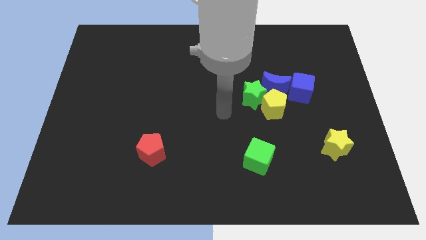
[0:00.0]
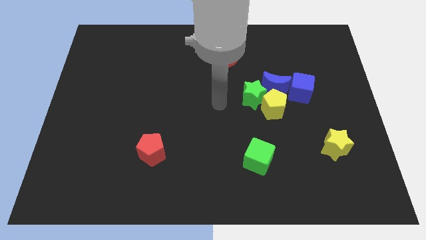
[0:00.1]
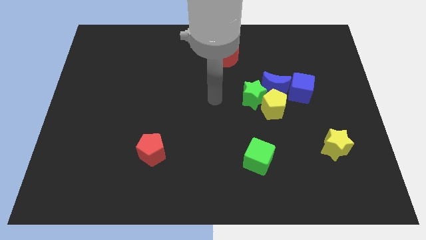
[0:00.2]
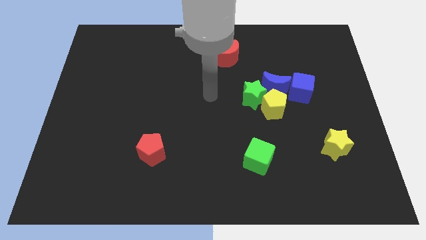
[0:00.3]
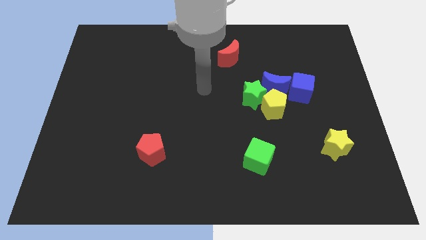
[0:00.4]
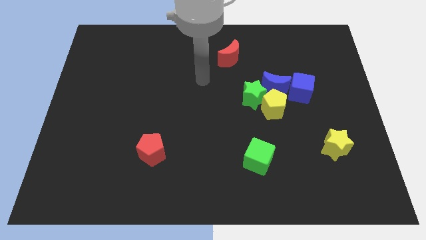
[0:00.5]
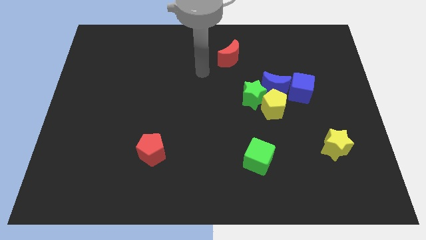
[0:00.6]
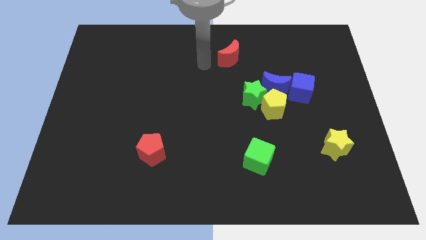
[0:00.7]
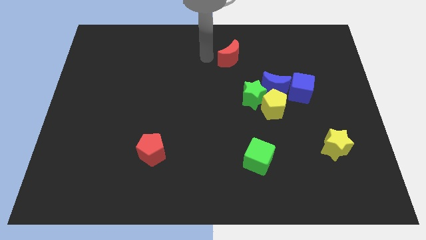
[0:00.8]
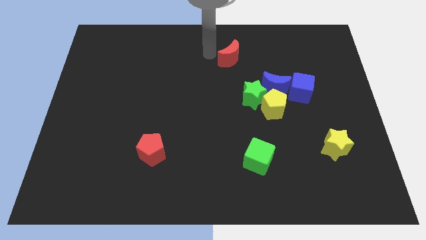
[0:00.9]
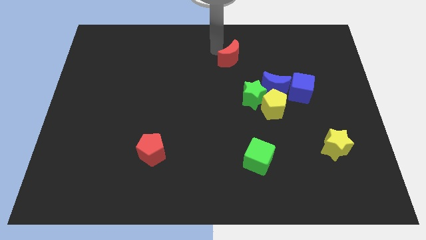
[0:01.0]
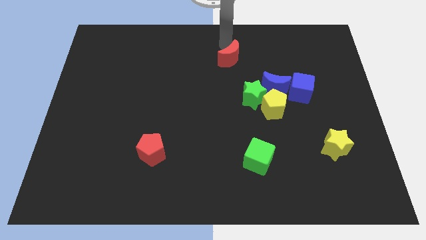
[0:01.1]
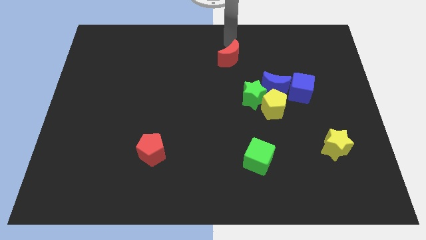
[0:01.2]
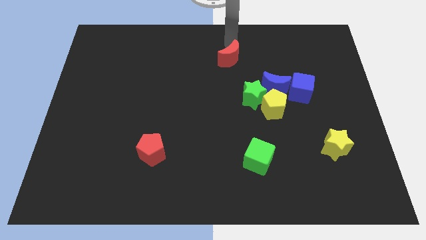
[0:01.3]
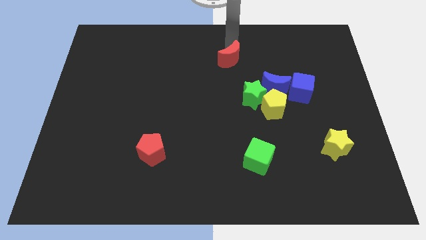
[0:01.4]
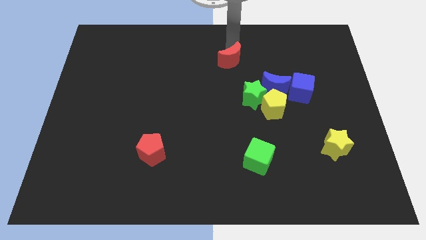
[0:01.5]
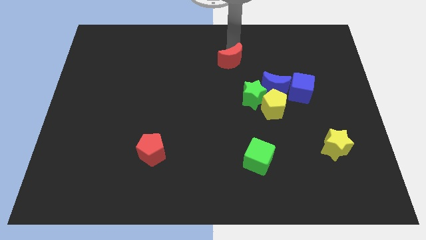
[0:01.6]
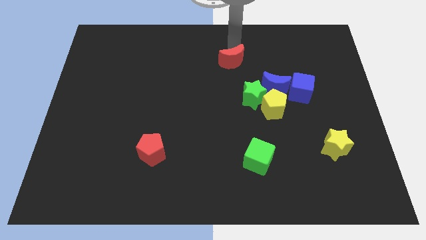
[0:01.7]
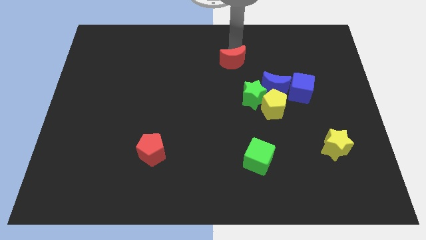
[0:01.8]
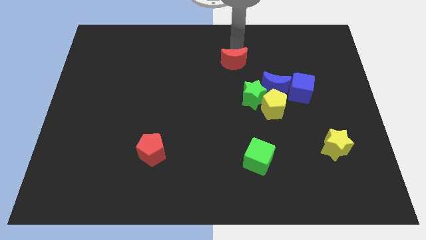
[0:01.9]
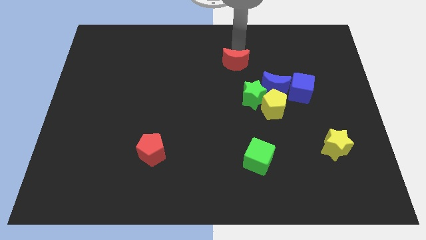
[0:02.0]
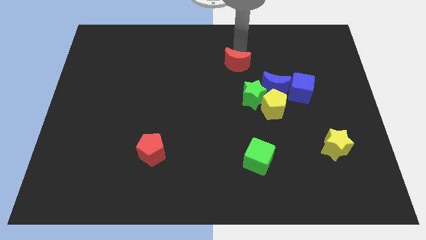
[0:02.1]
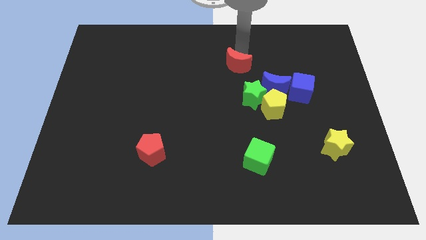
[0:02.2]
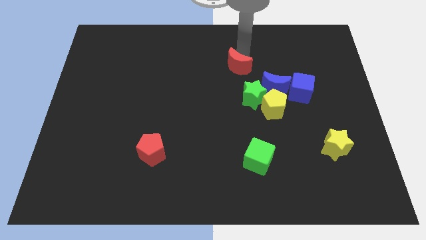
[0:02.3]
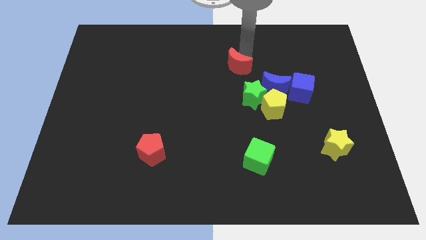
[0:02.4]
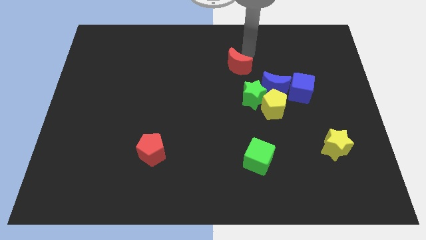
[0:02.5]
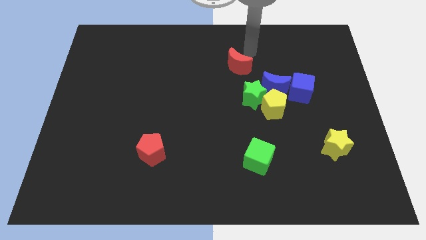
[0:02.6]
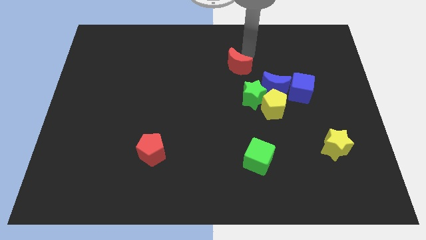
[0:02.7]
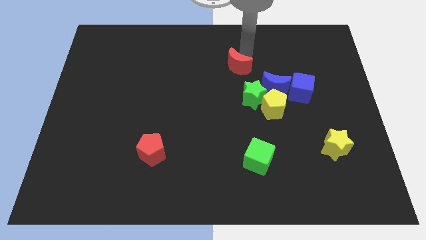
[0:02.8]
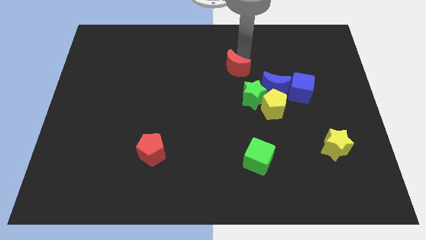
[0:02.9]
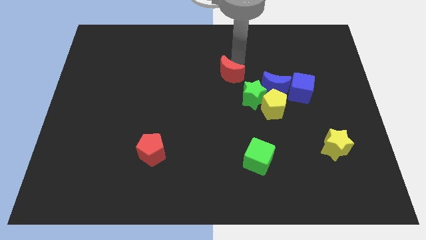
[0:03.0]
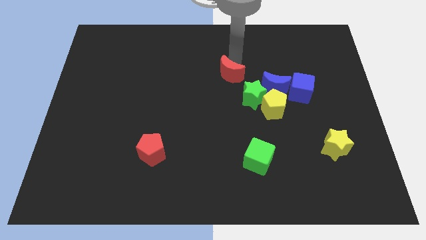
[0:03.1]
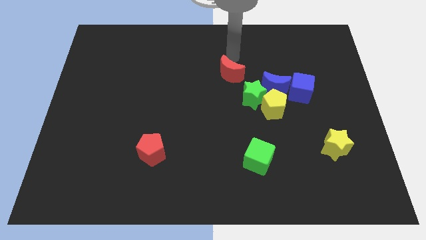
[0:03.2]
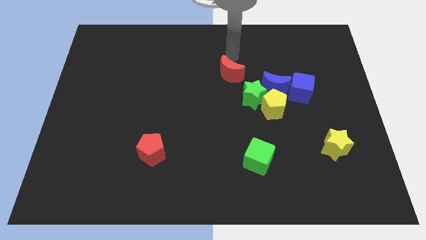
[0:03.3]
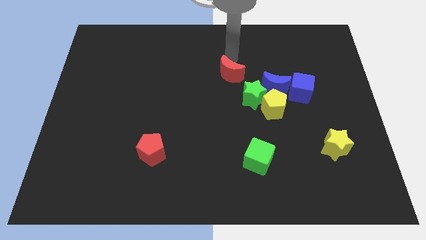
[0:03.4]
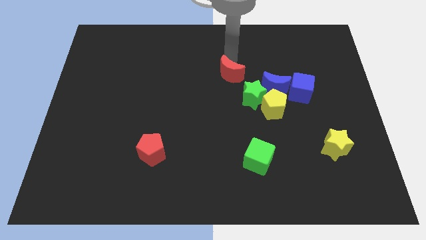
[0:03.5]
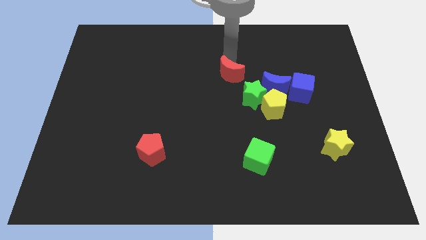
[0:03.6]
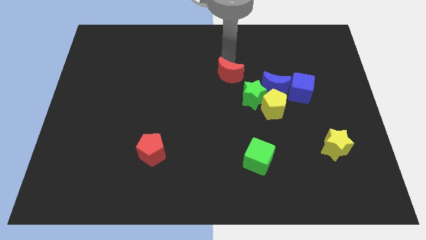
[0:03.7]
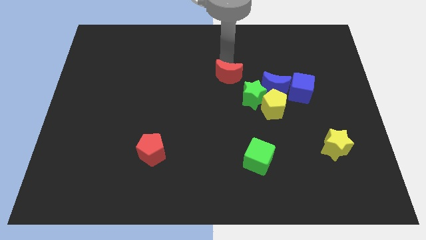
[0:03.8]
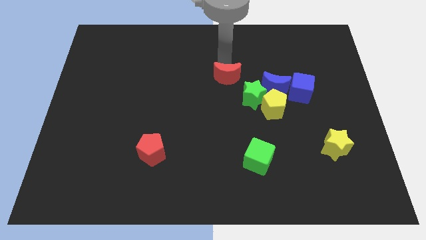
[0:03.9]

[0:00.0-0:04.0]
slightly push the red moon downwards

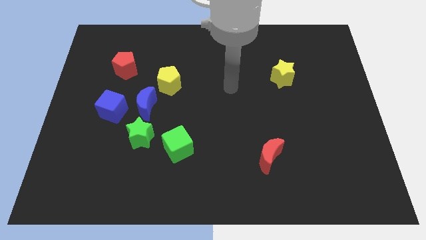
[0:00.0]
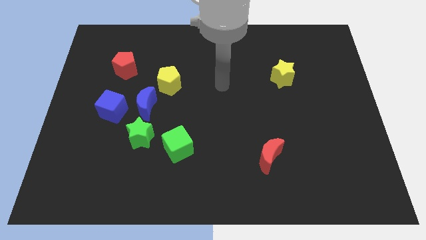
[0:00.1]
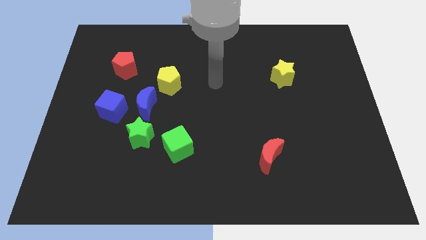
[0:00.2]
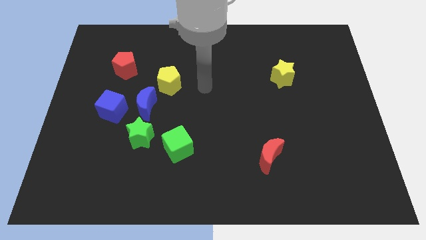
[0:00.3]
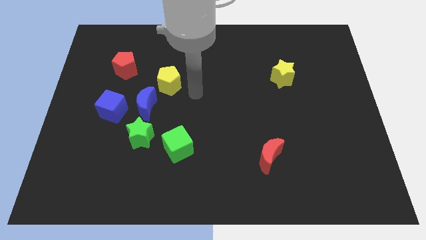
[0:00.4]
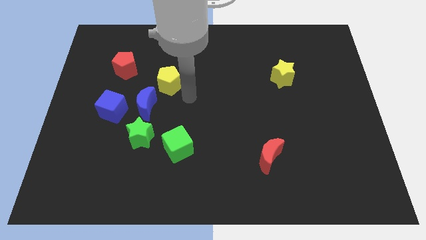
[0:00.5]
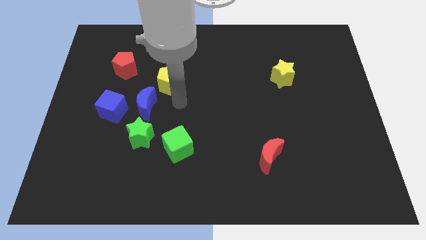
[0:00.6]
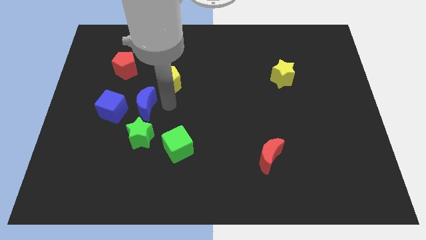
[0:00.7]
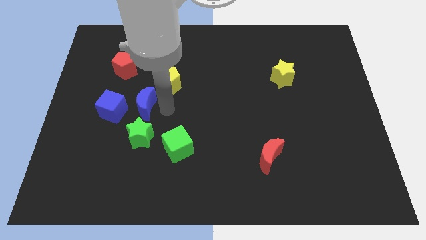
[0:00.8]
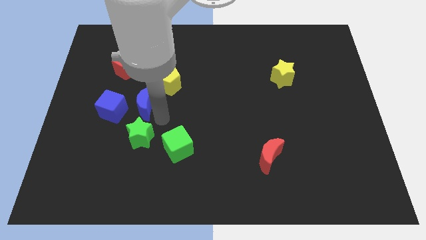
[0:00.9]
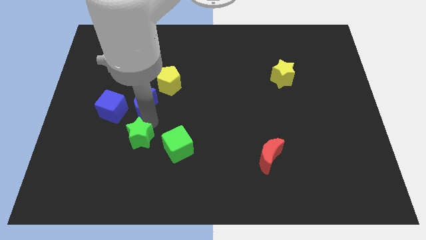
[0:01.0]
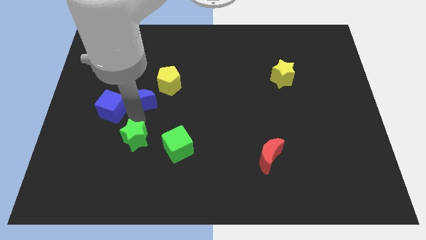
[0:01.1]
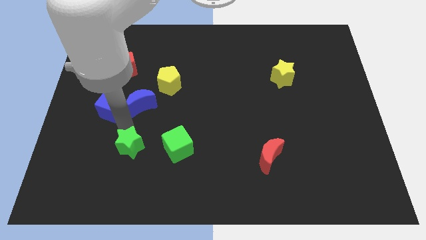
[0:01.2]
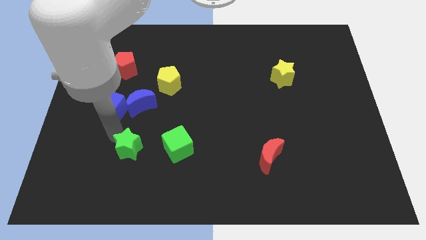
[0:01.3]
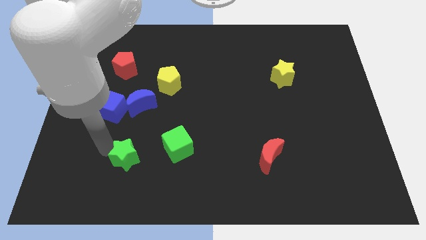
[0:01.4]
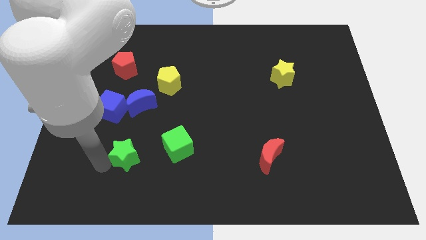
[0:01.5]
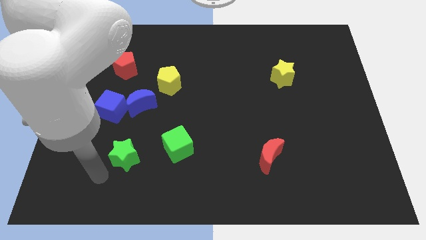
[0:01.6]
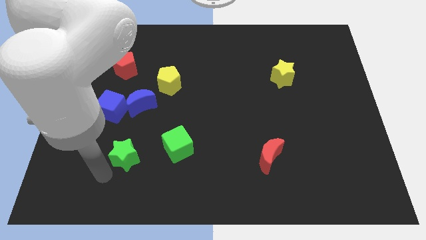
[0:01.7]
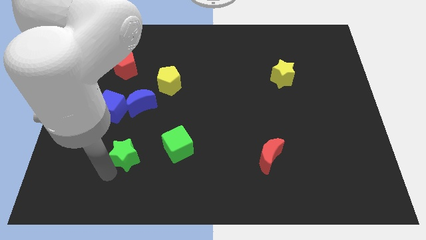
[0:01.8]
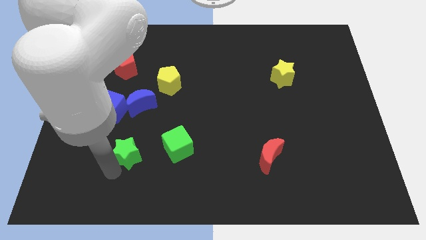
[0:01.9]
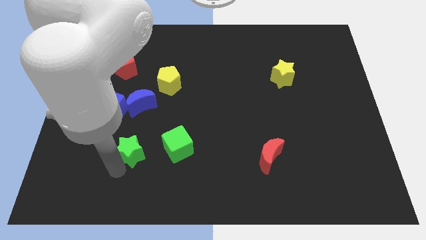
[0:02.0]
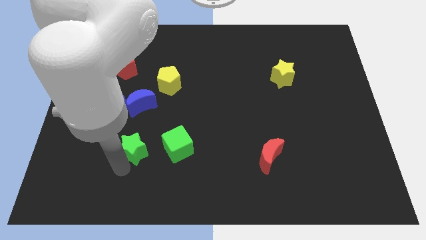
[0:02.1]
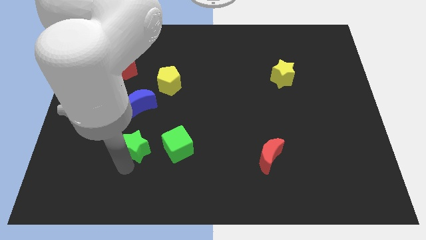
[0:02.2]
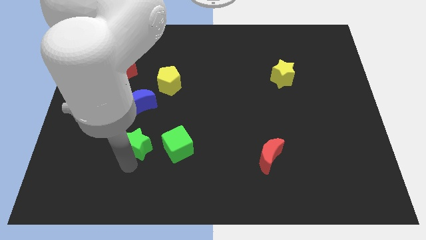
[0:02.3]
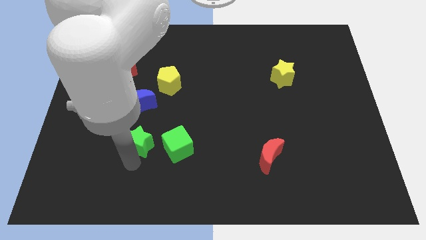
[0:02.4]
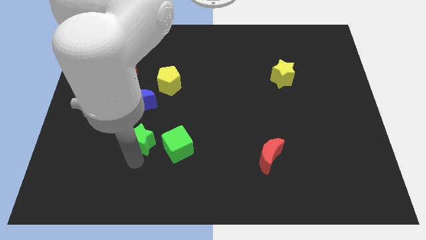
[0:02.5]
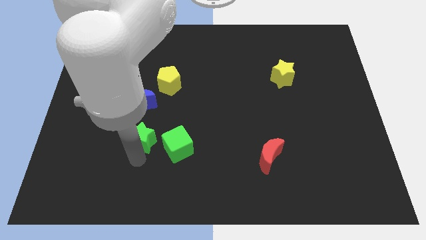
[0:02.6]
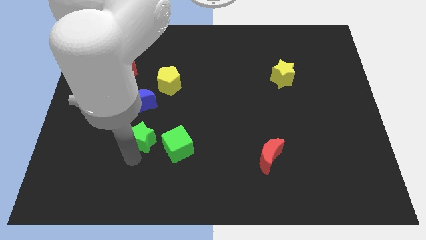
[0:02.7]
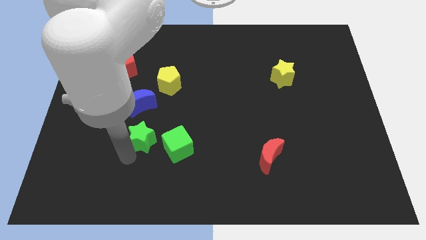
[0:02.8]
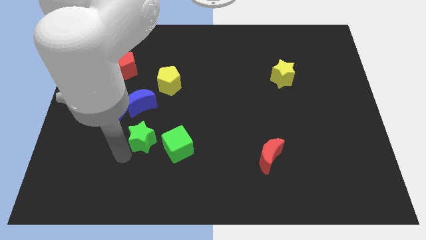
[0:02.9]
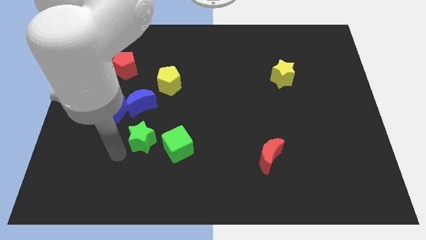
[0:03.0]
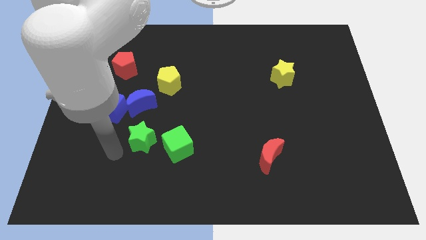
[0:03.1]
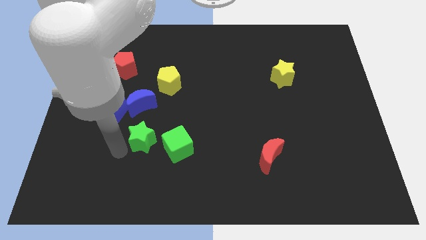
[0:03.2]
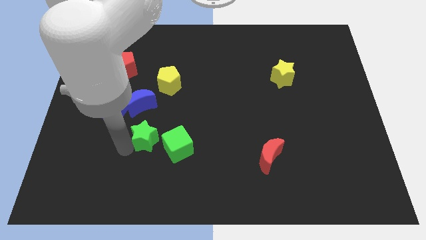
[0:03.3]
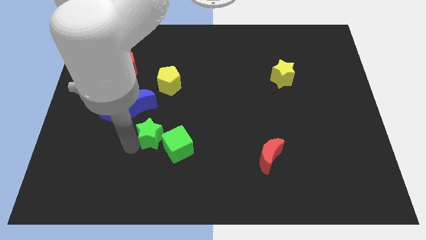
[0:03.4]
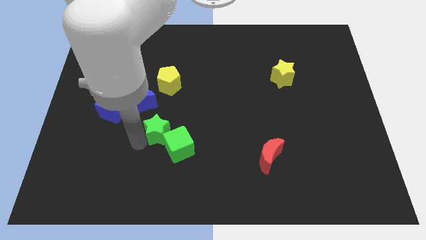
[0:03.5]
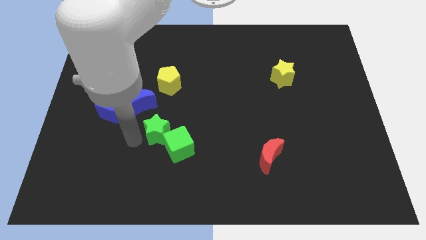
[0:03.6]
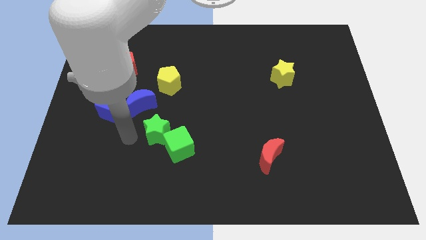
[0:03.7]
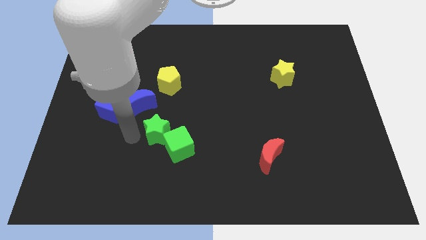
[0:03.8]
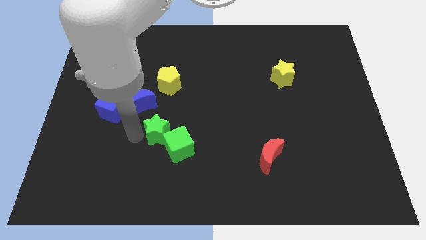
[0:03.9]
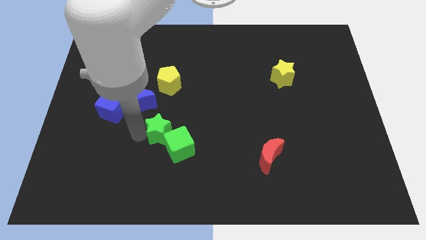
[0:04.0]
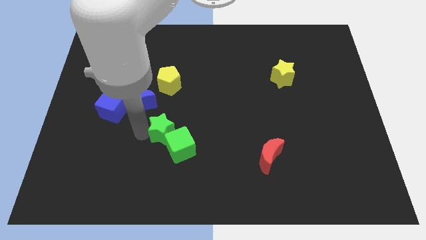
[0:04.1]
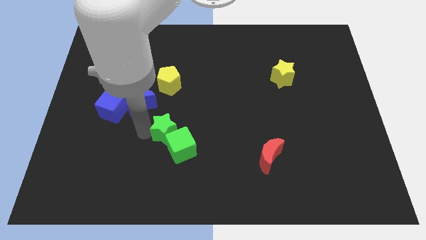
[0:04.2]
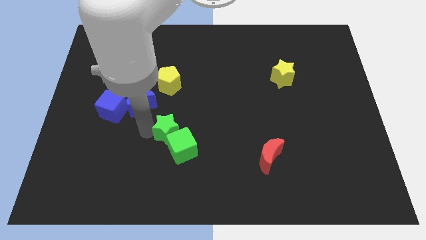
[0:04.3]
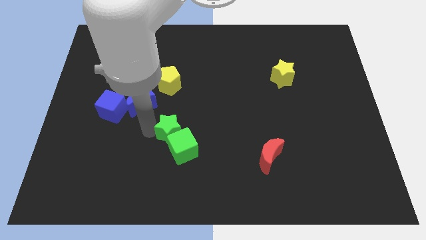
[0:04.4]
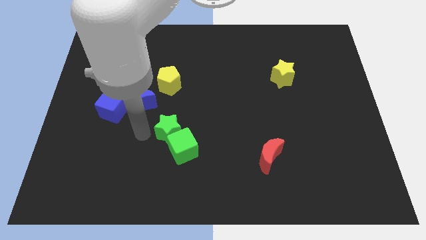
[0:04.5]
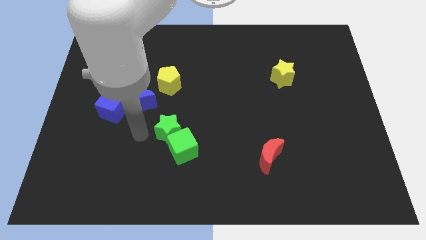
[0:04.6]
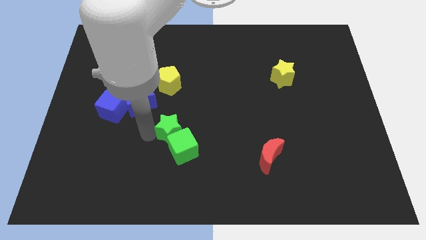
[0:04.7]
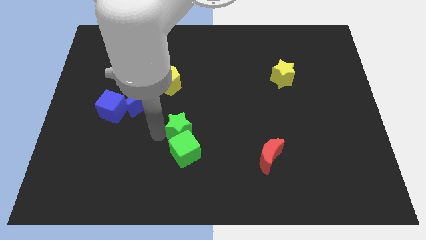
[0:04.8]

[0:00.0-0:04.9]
slide the green star a bit right
